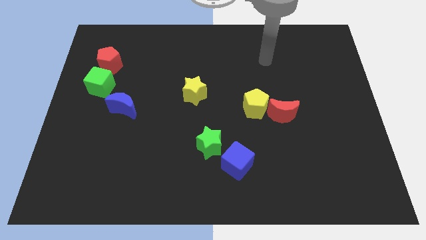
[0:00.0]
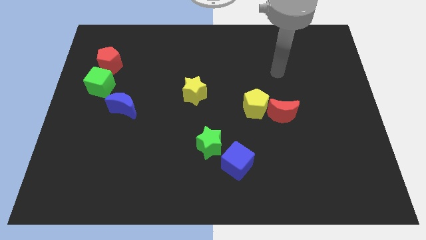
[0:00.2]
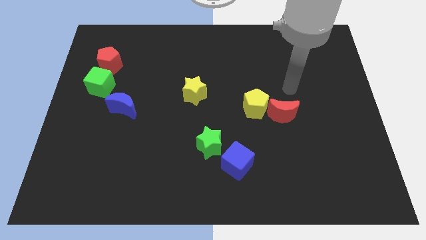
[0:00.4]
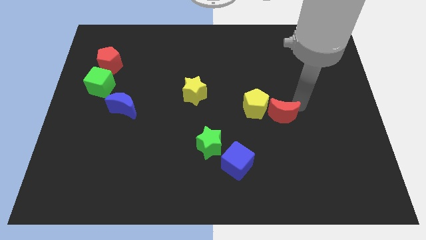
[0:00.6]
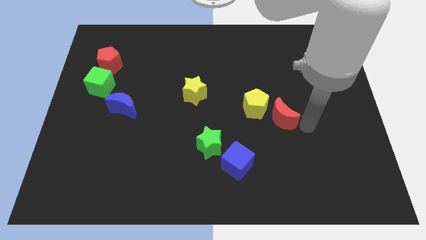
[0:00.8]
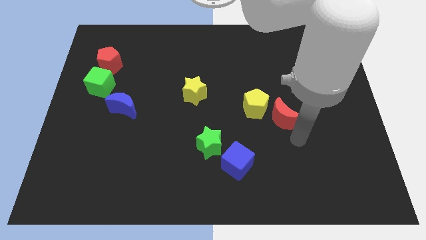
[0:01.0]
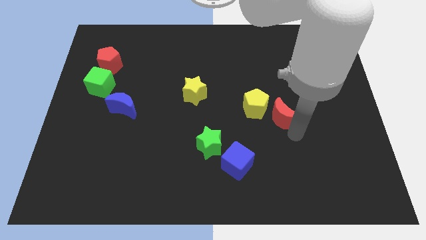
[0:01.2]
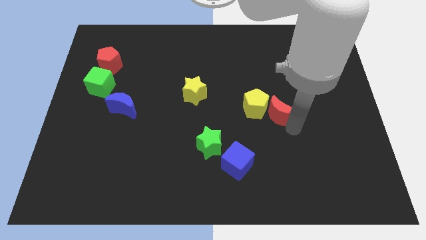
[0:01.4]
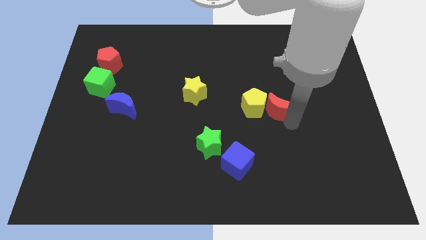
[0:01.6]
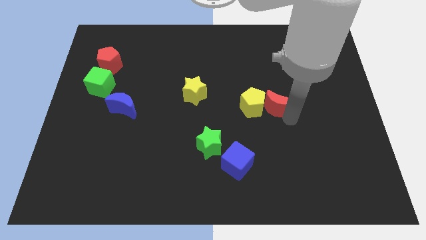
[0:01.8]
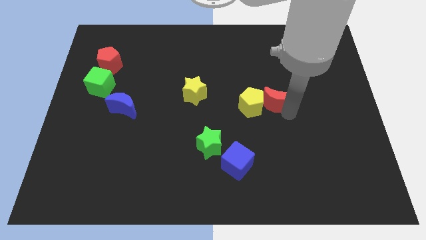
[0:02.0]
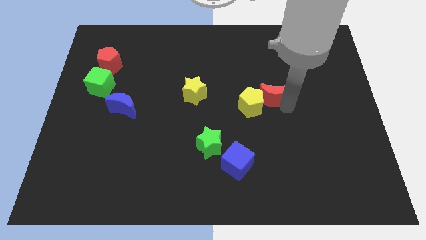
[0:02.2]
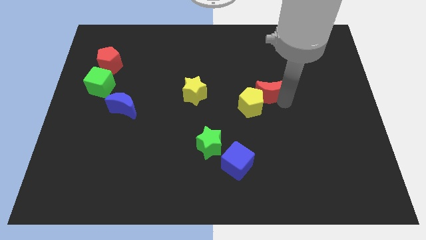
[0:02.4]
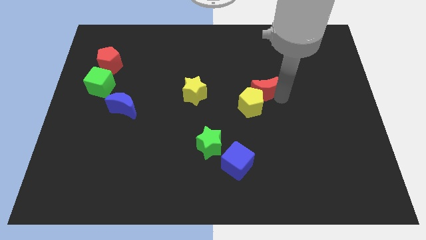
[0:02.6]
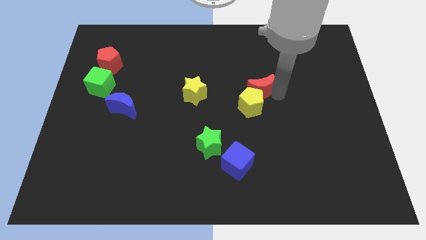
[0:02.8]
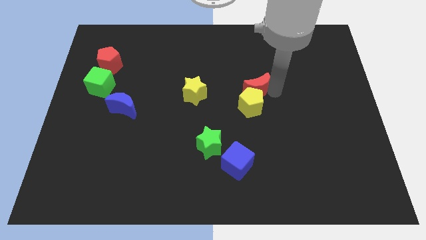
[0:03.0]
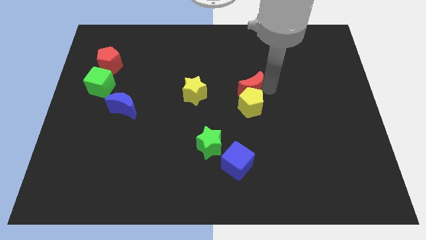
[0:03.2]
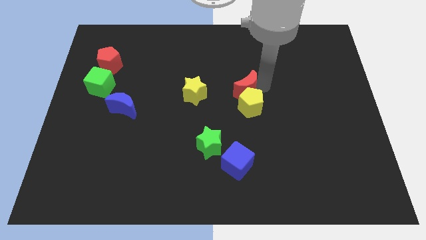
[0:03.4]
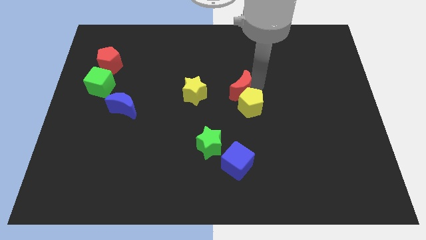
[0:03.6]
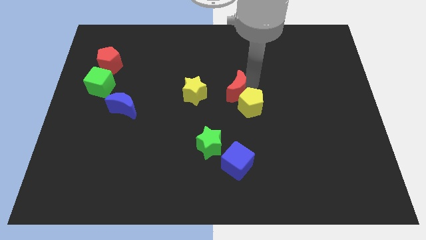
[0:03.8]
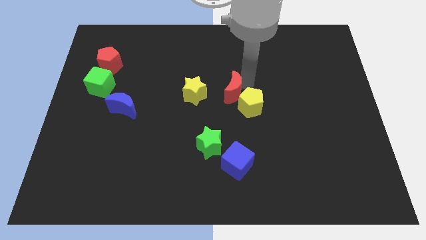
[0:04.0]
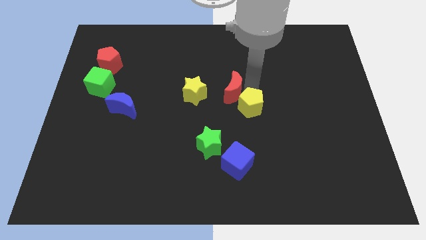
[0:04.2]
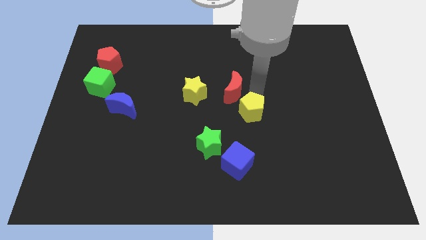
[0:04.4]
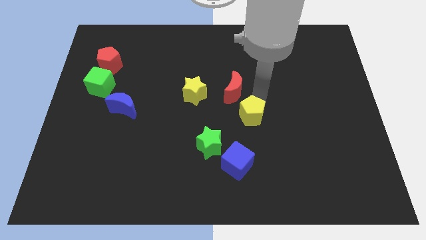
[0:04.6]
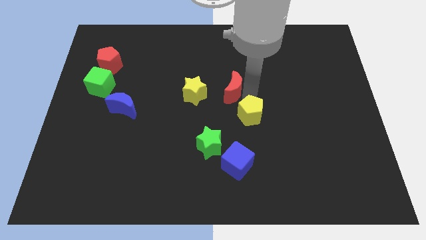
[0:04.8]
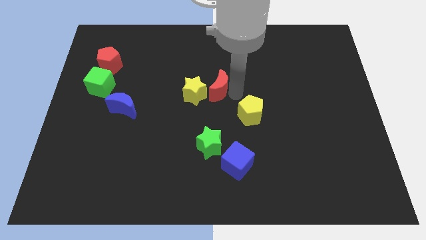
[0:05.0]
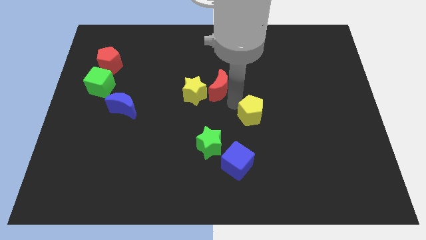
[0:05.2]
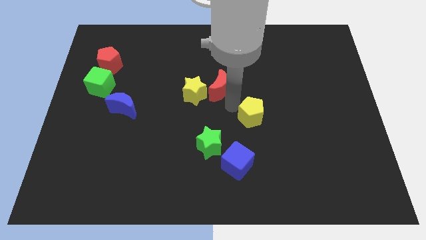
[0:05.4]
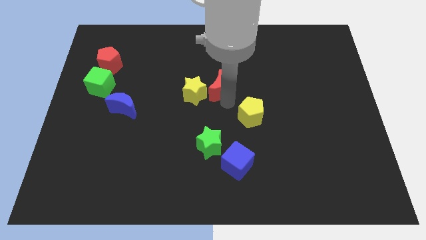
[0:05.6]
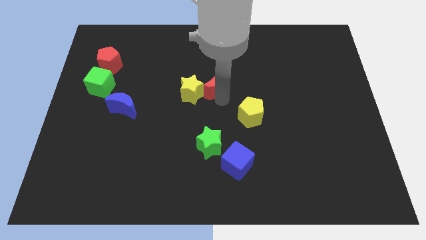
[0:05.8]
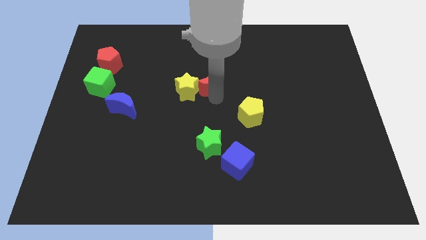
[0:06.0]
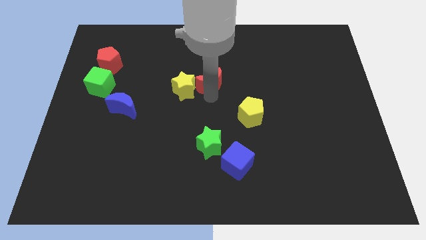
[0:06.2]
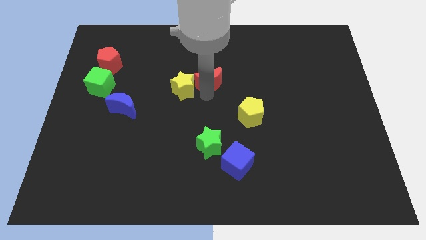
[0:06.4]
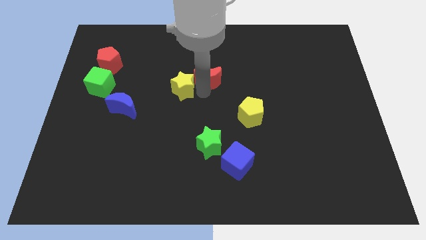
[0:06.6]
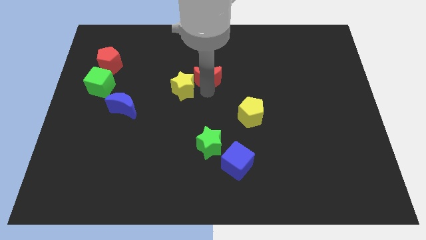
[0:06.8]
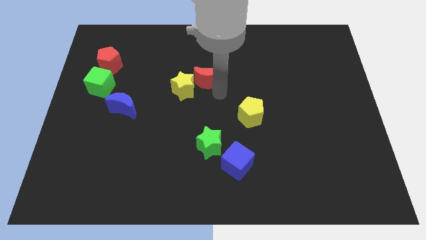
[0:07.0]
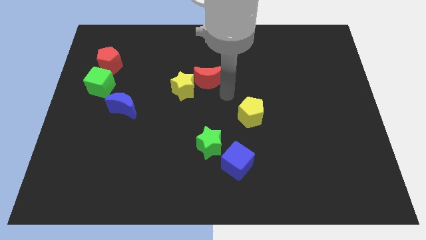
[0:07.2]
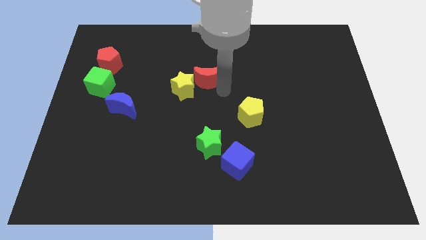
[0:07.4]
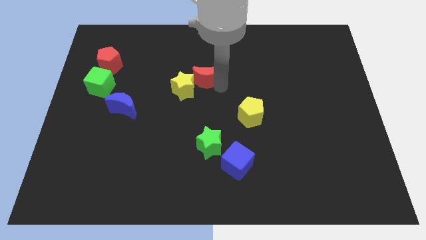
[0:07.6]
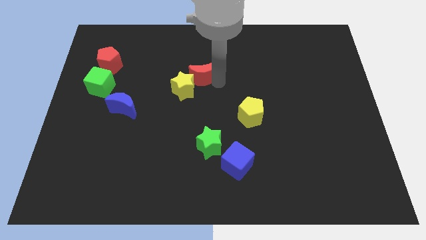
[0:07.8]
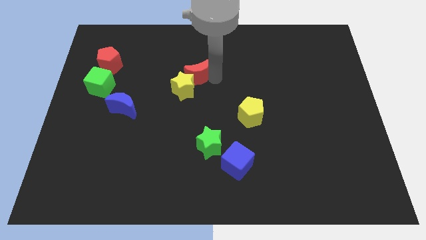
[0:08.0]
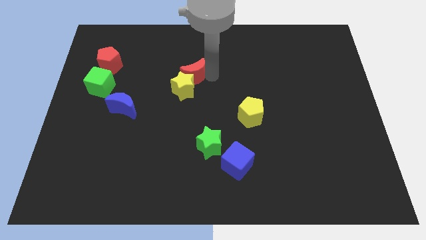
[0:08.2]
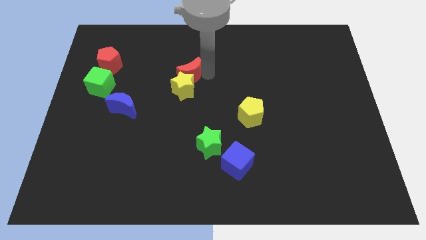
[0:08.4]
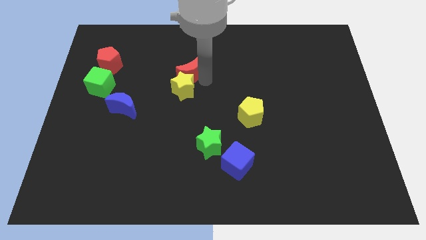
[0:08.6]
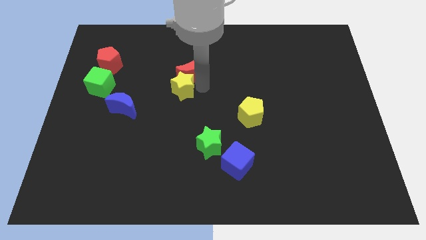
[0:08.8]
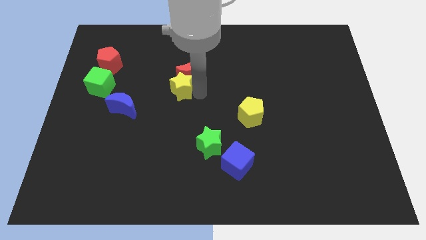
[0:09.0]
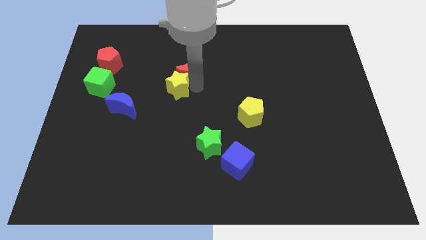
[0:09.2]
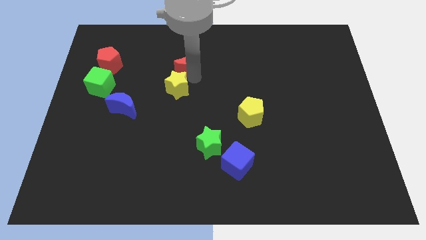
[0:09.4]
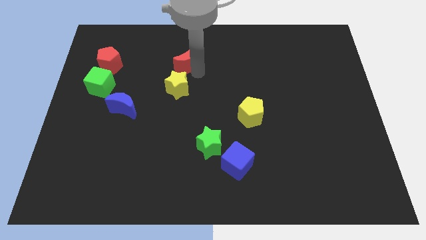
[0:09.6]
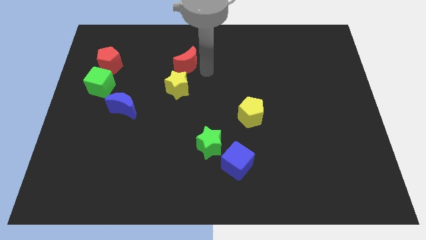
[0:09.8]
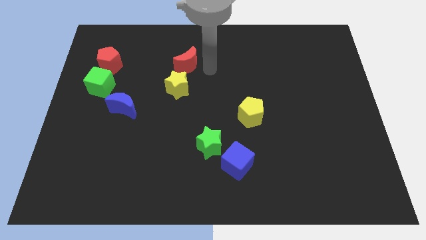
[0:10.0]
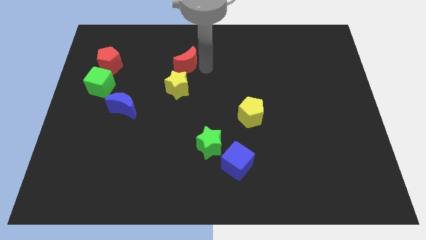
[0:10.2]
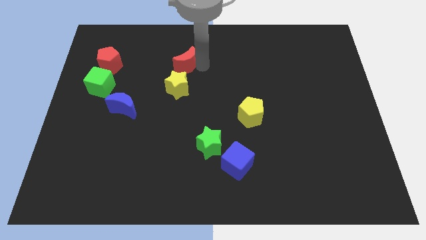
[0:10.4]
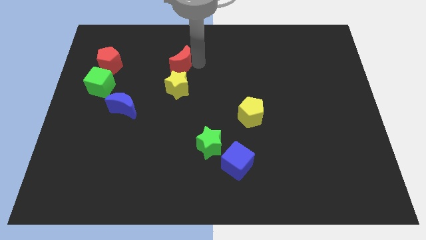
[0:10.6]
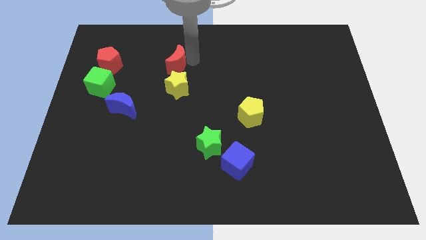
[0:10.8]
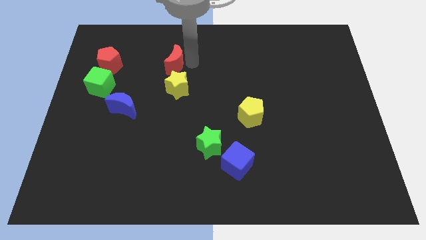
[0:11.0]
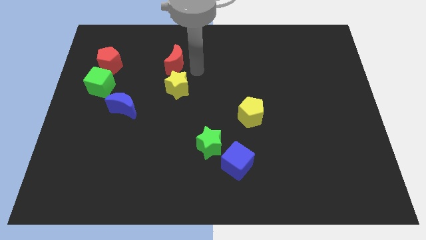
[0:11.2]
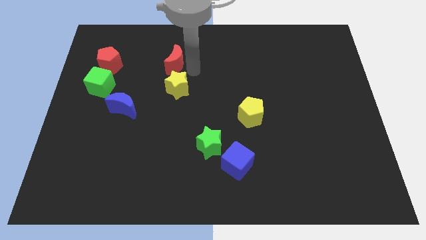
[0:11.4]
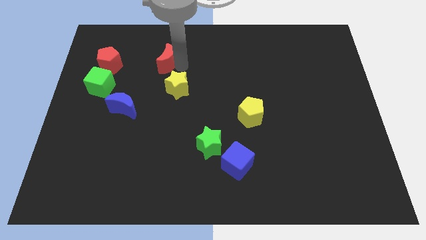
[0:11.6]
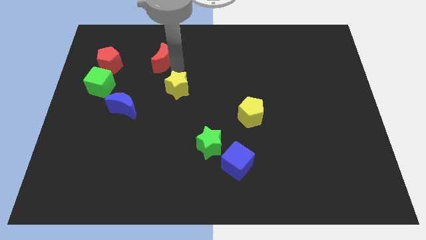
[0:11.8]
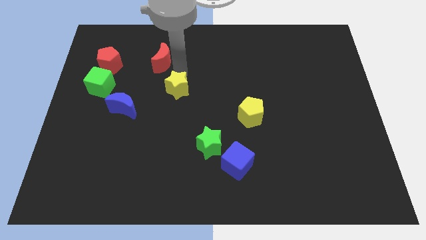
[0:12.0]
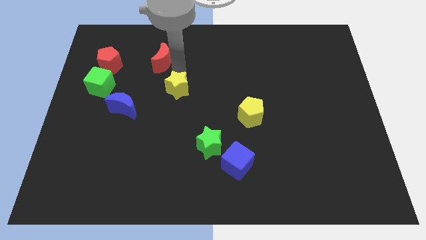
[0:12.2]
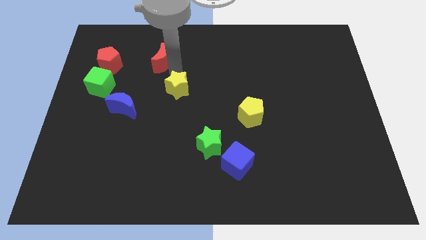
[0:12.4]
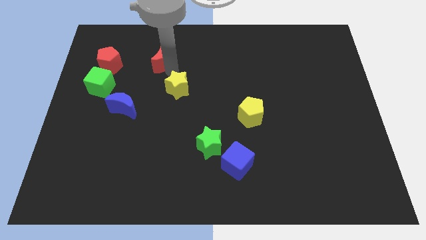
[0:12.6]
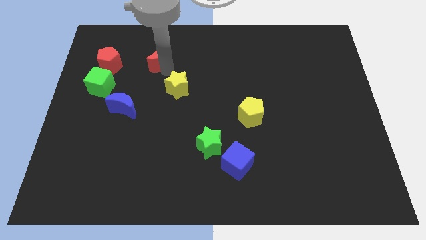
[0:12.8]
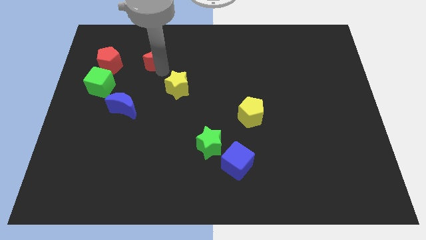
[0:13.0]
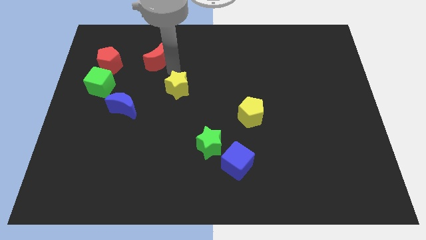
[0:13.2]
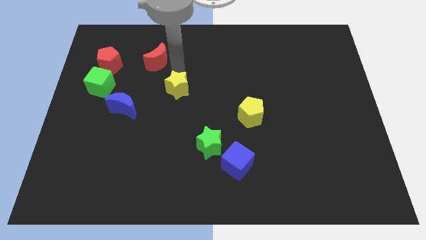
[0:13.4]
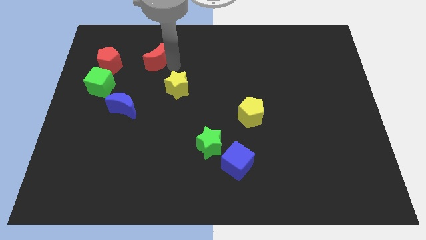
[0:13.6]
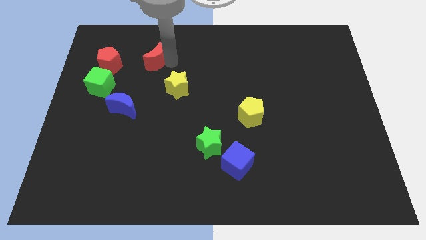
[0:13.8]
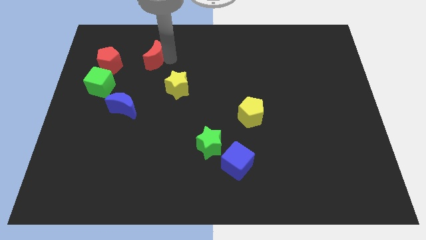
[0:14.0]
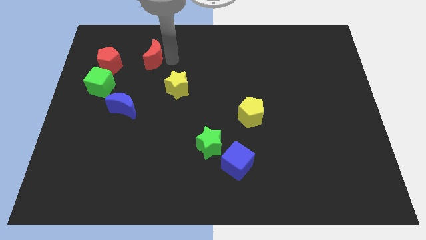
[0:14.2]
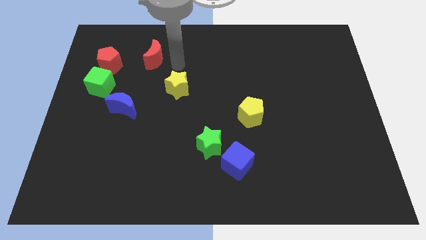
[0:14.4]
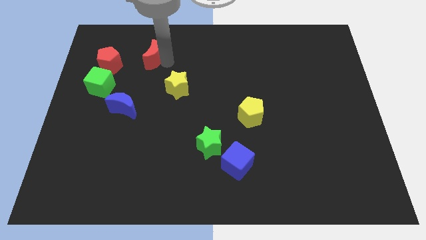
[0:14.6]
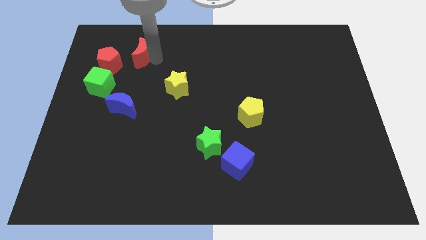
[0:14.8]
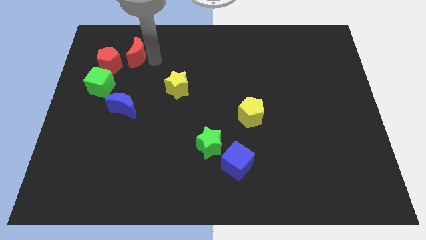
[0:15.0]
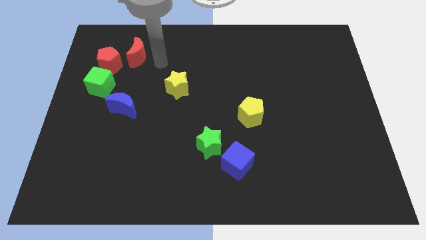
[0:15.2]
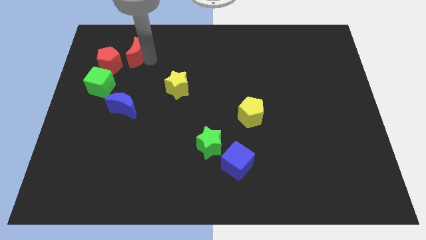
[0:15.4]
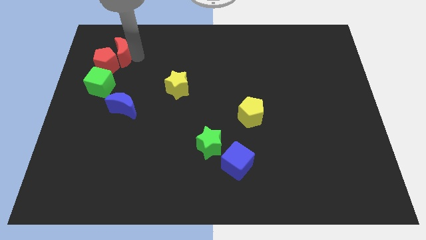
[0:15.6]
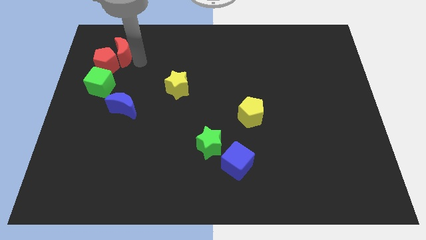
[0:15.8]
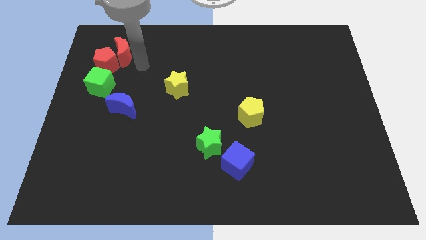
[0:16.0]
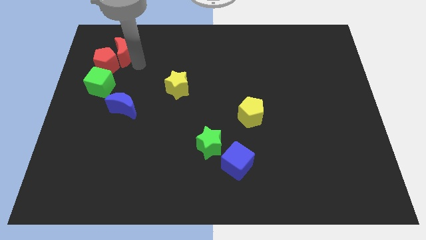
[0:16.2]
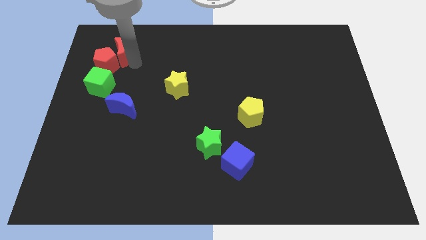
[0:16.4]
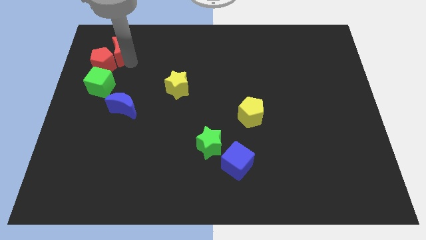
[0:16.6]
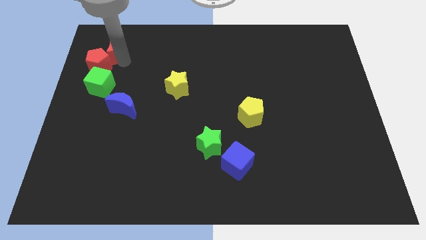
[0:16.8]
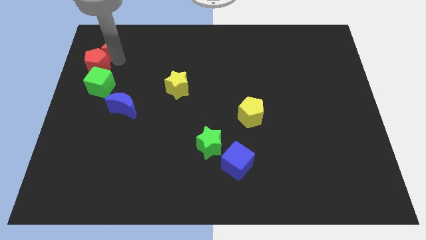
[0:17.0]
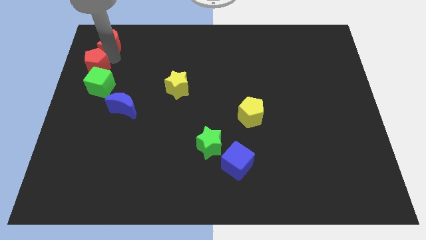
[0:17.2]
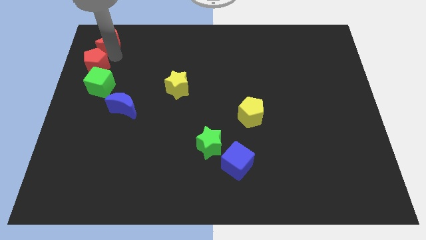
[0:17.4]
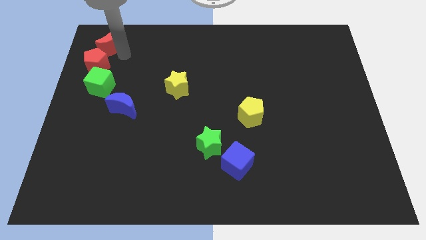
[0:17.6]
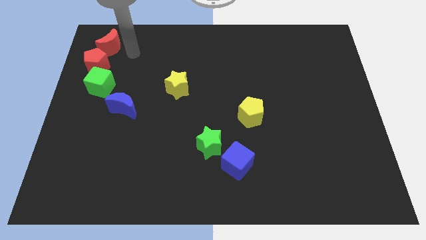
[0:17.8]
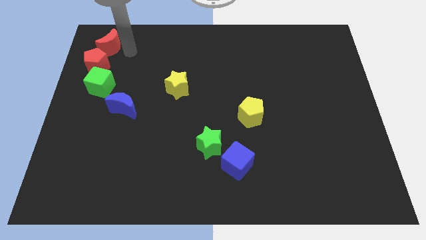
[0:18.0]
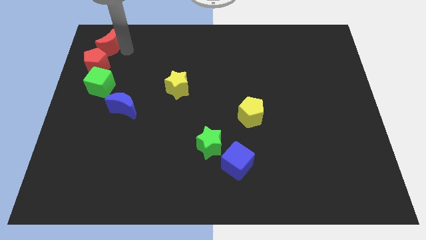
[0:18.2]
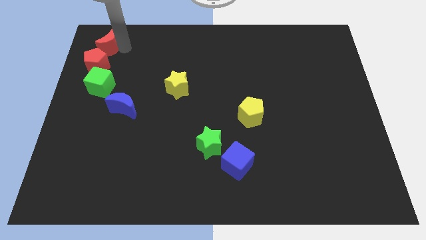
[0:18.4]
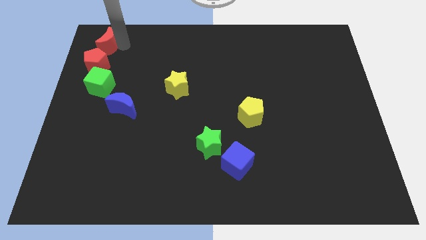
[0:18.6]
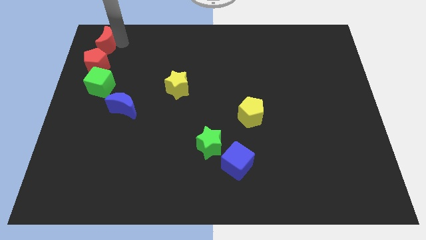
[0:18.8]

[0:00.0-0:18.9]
push the red moon to the top left
